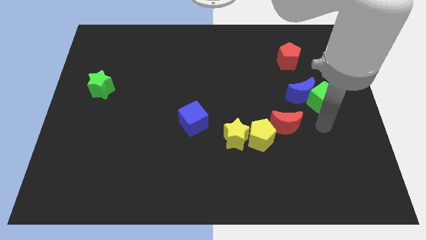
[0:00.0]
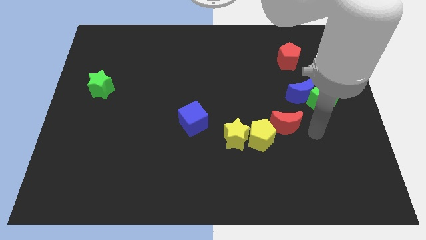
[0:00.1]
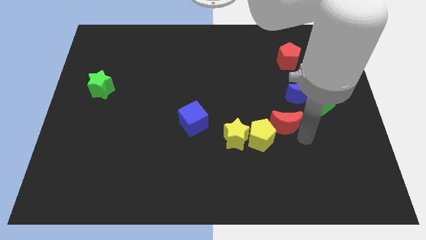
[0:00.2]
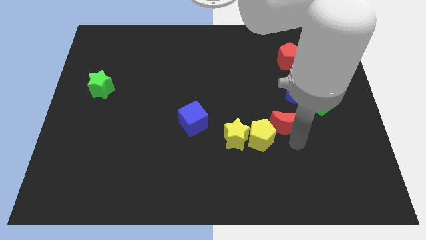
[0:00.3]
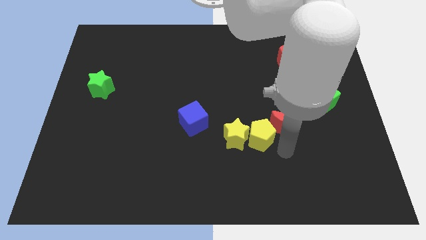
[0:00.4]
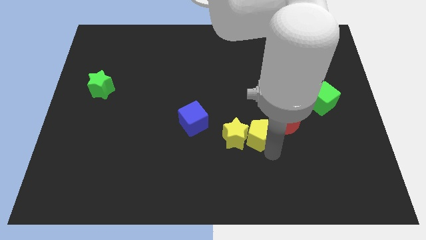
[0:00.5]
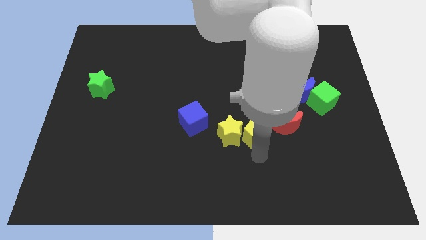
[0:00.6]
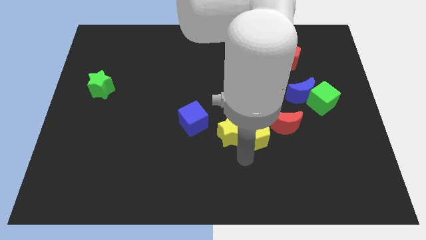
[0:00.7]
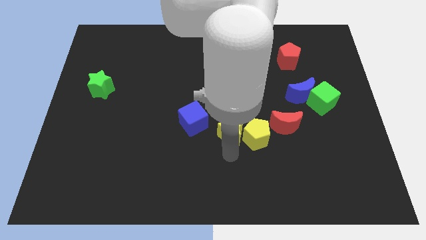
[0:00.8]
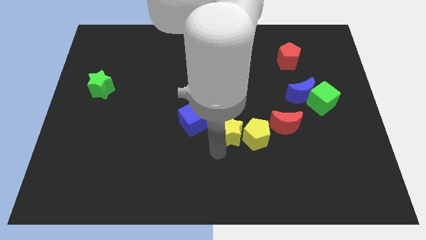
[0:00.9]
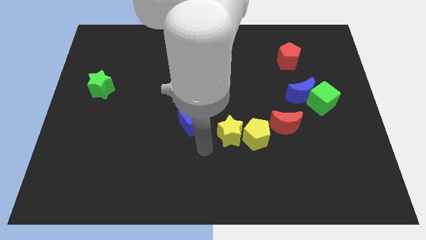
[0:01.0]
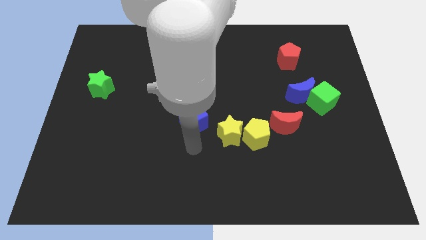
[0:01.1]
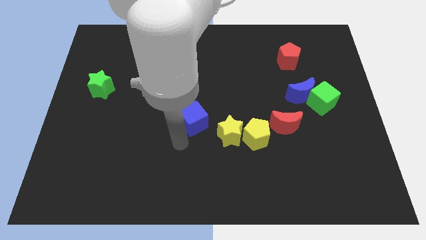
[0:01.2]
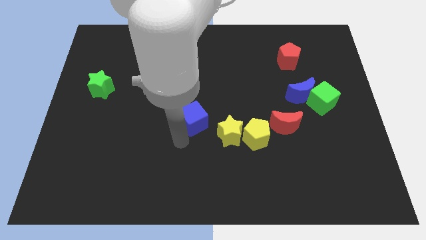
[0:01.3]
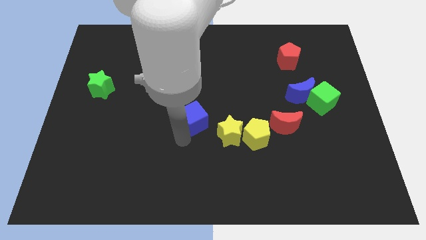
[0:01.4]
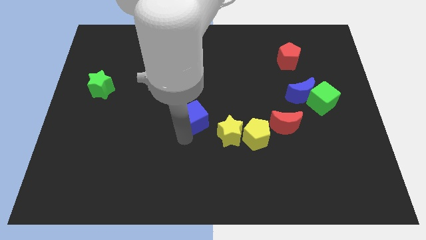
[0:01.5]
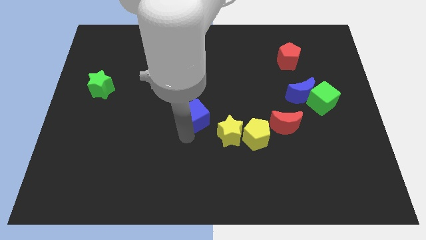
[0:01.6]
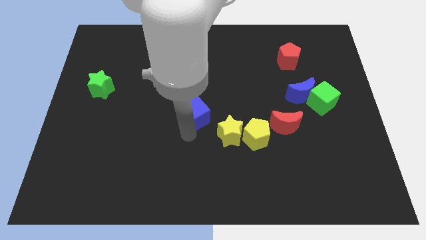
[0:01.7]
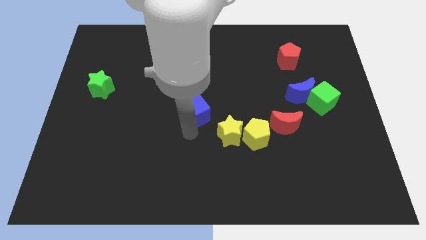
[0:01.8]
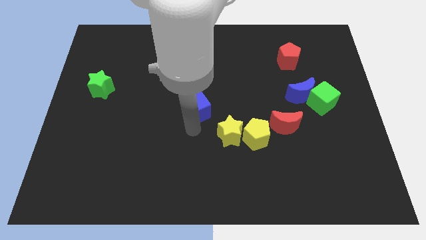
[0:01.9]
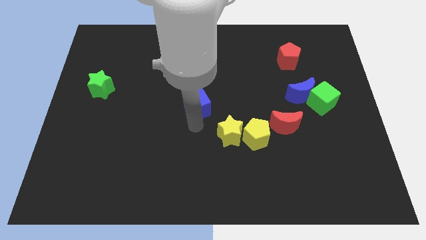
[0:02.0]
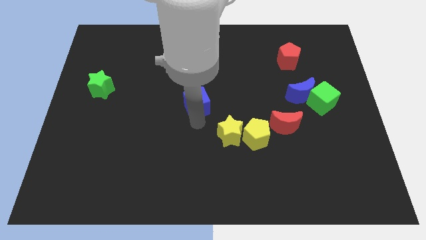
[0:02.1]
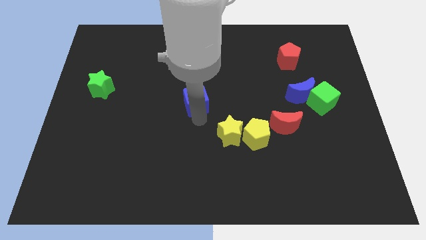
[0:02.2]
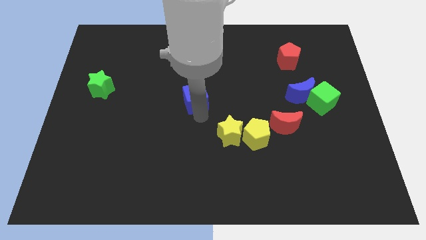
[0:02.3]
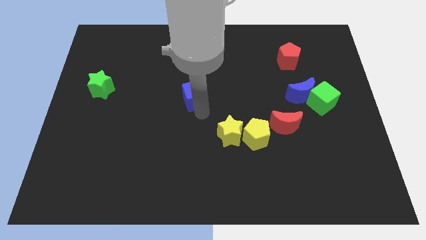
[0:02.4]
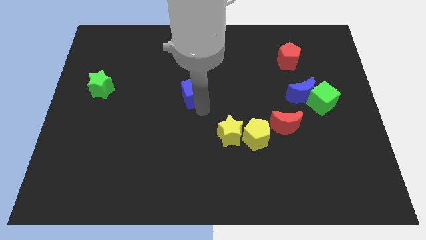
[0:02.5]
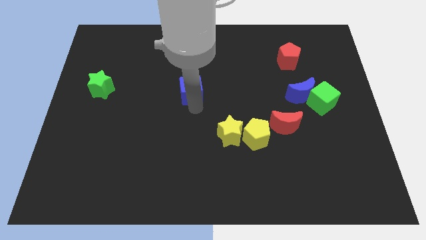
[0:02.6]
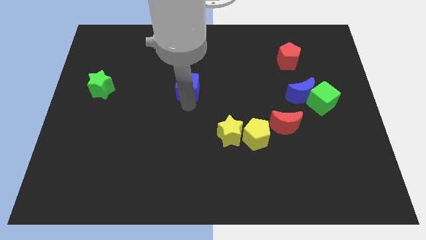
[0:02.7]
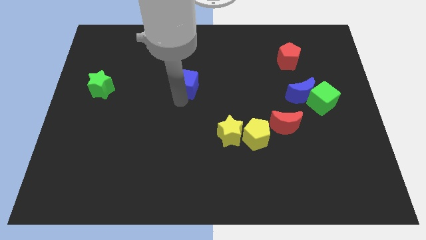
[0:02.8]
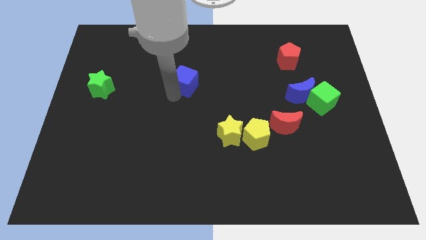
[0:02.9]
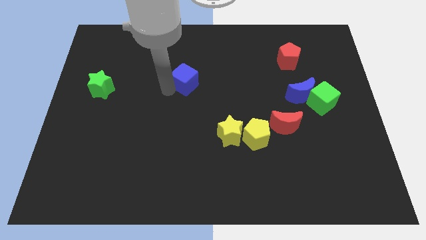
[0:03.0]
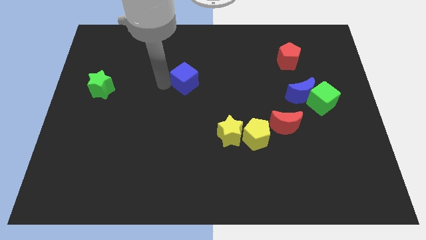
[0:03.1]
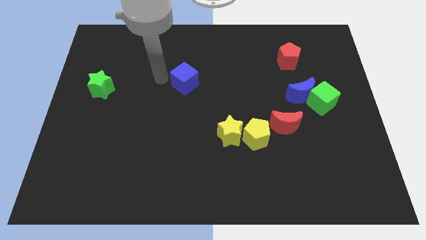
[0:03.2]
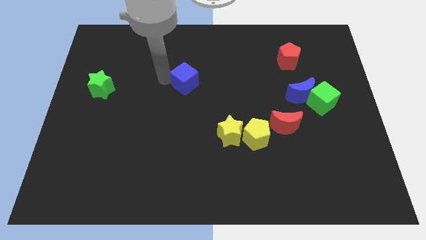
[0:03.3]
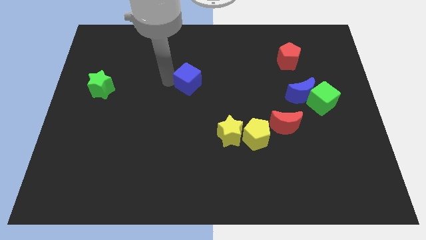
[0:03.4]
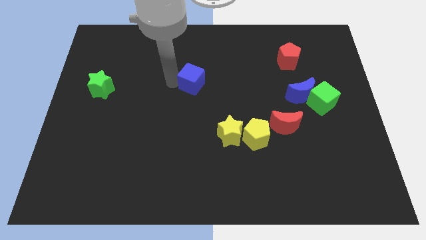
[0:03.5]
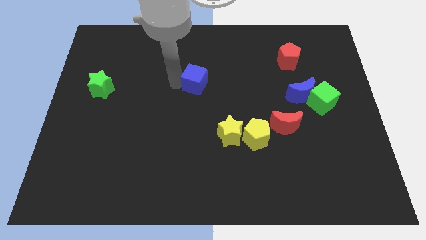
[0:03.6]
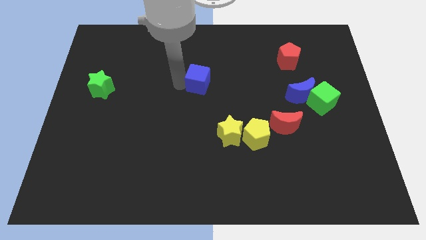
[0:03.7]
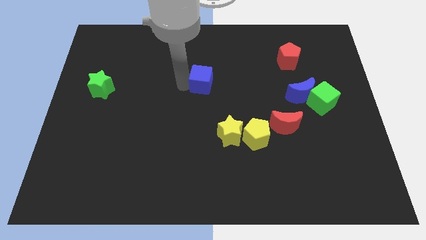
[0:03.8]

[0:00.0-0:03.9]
slightly push the blue cube up and then right

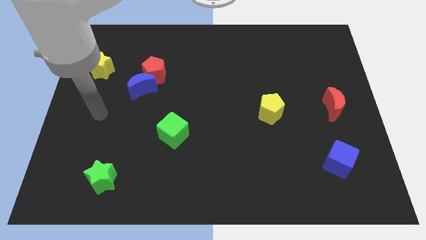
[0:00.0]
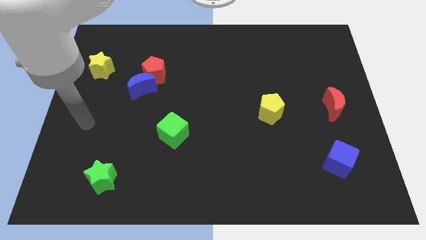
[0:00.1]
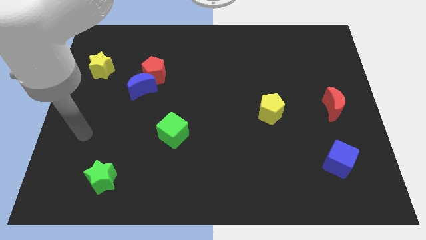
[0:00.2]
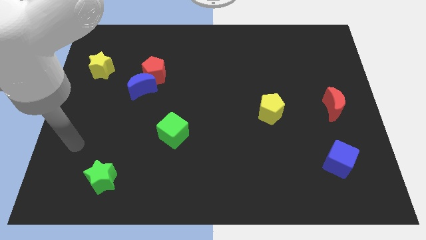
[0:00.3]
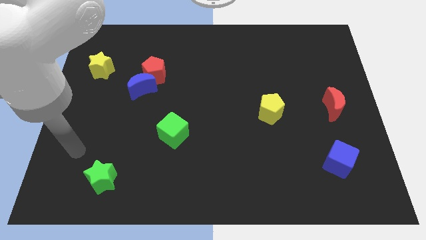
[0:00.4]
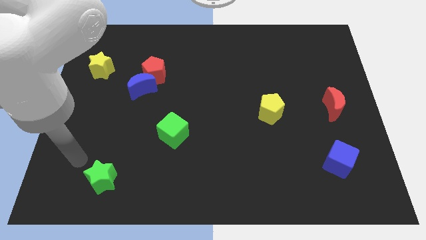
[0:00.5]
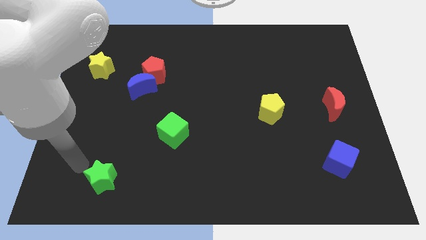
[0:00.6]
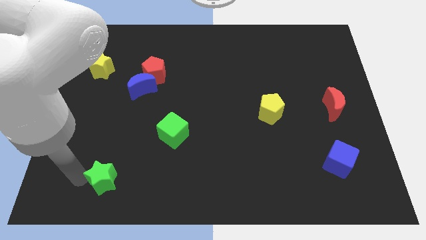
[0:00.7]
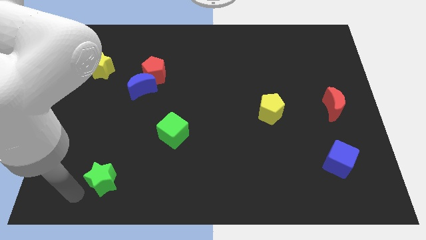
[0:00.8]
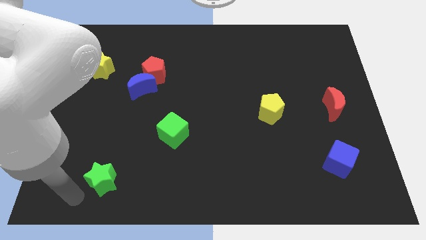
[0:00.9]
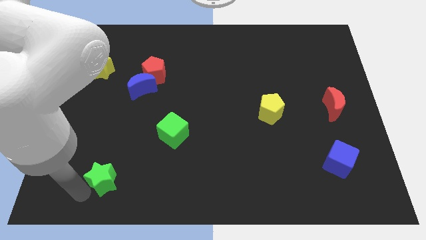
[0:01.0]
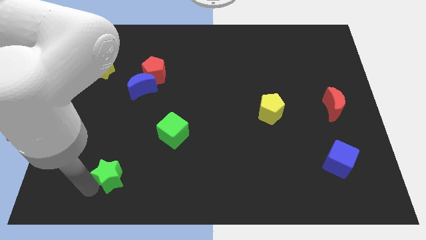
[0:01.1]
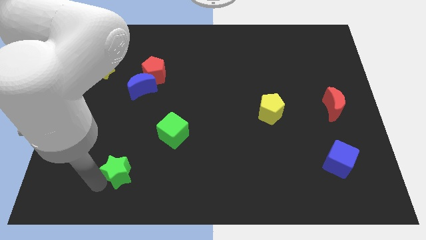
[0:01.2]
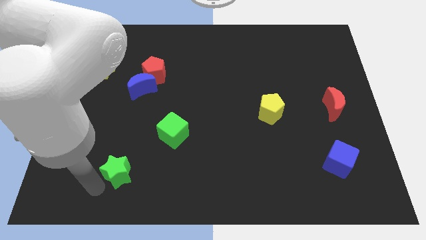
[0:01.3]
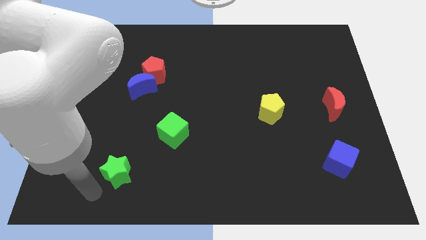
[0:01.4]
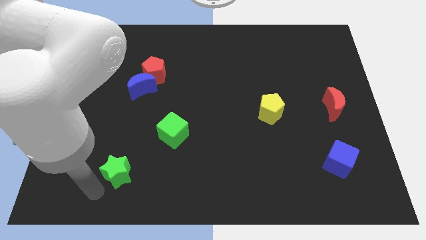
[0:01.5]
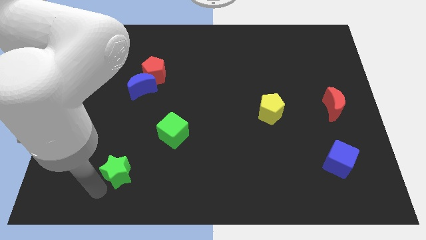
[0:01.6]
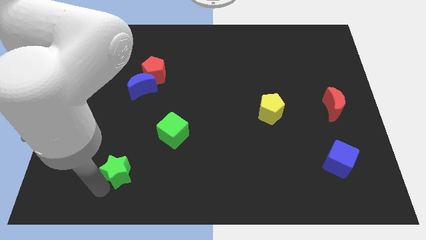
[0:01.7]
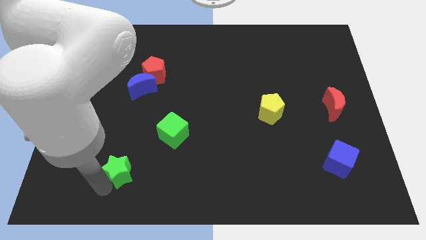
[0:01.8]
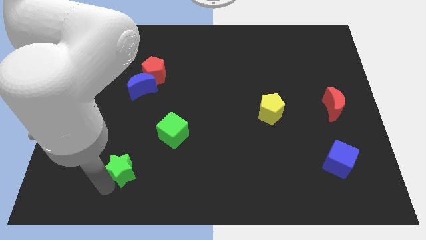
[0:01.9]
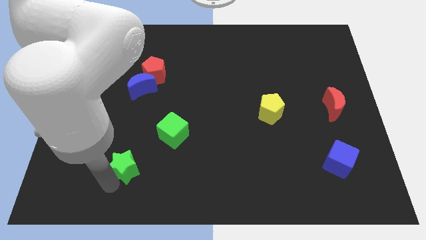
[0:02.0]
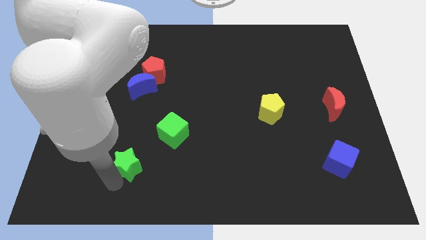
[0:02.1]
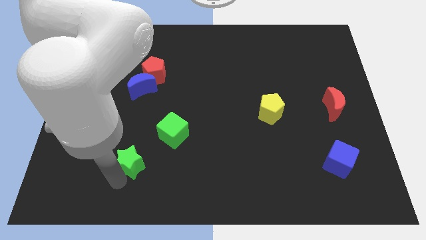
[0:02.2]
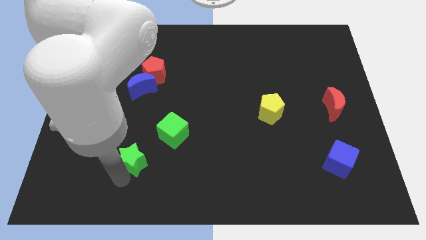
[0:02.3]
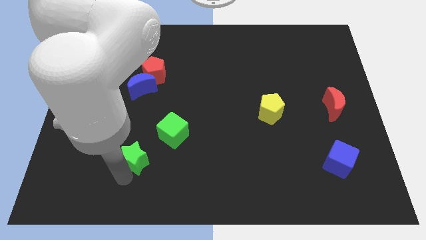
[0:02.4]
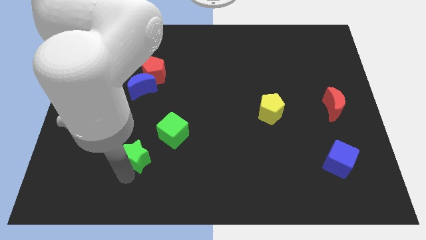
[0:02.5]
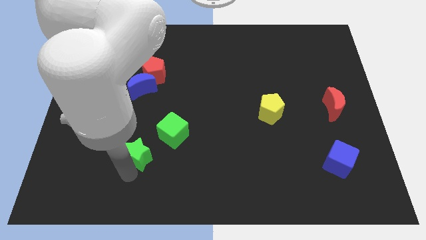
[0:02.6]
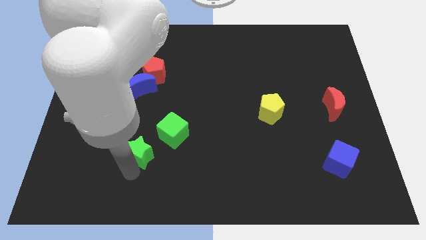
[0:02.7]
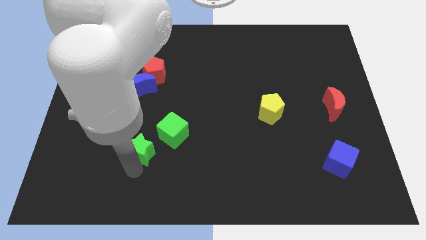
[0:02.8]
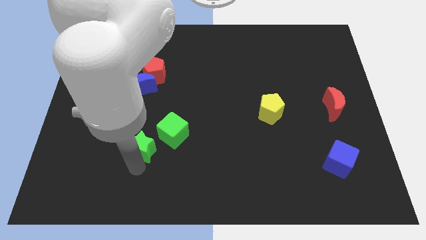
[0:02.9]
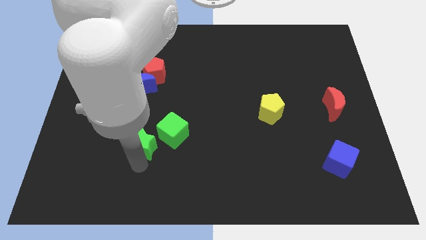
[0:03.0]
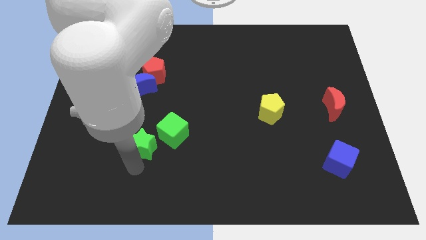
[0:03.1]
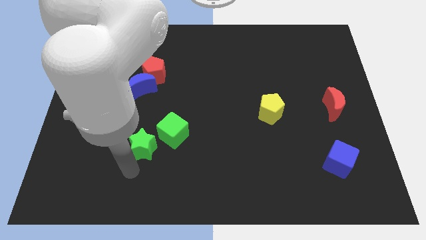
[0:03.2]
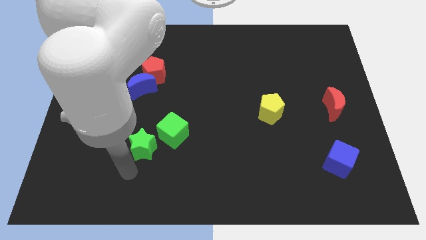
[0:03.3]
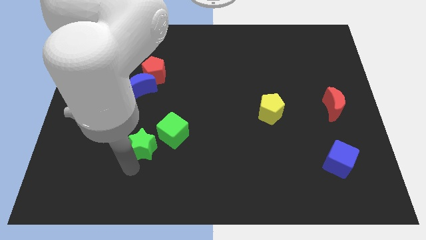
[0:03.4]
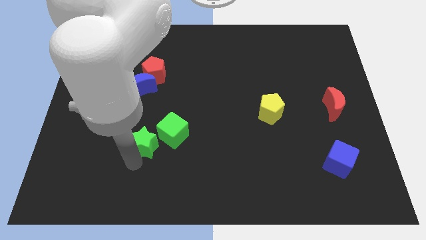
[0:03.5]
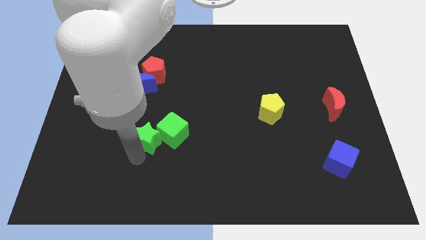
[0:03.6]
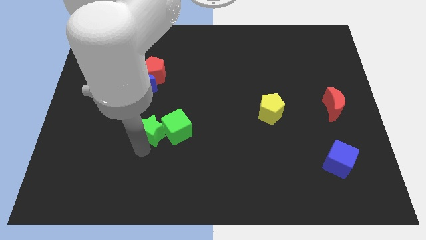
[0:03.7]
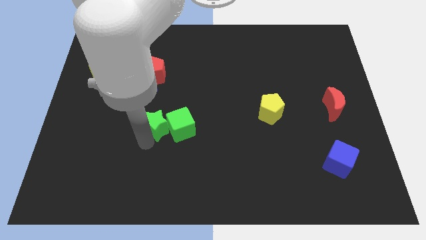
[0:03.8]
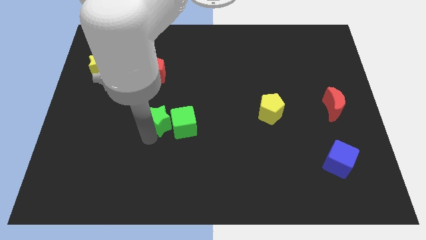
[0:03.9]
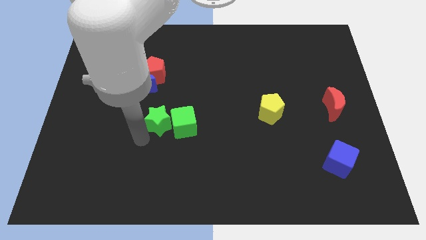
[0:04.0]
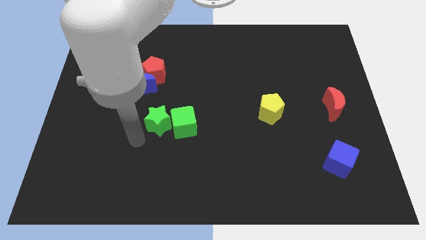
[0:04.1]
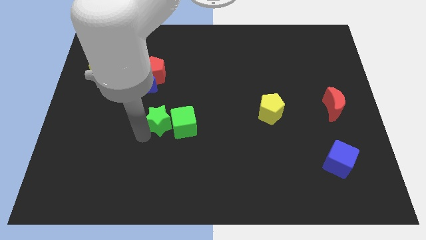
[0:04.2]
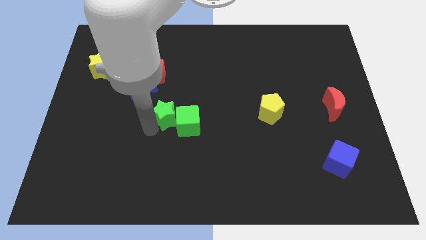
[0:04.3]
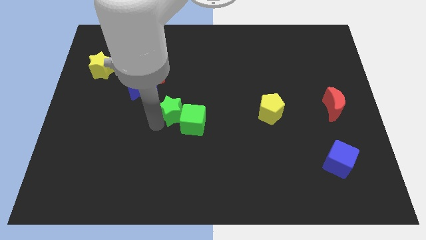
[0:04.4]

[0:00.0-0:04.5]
slide the green star upwards and to the right diagonally
